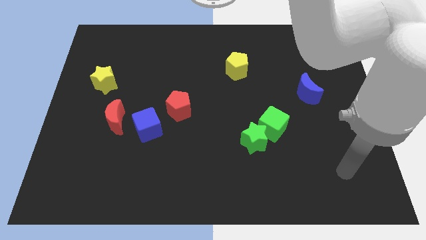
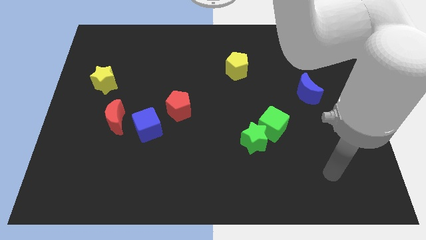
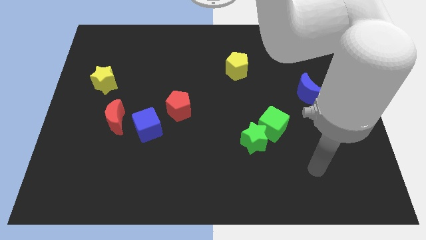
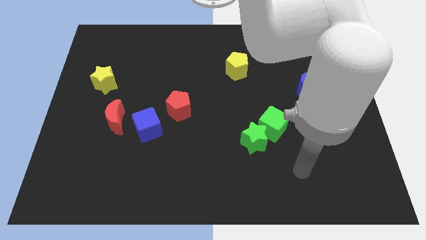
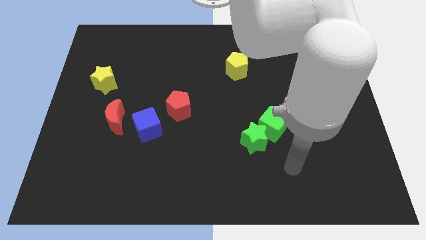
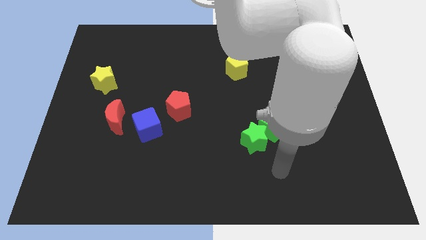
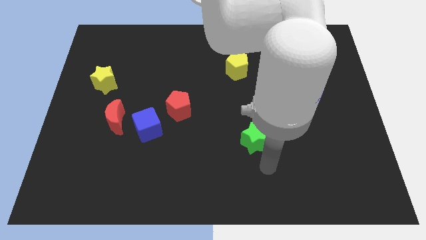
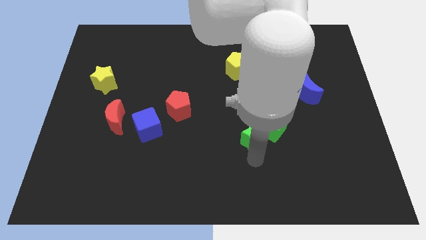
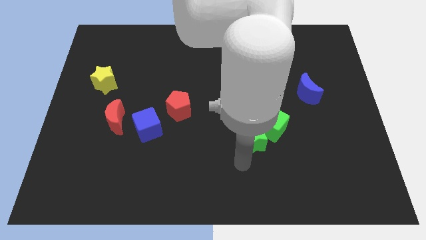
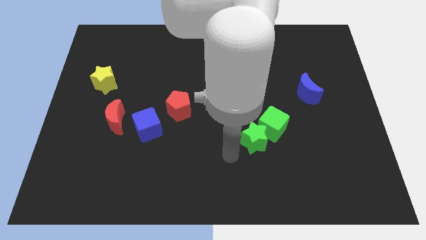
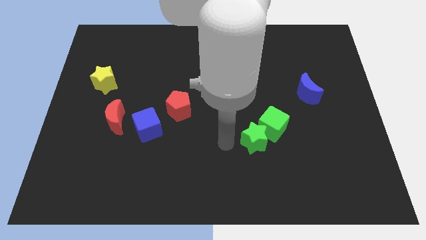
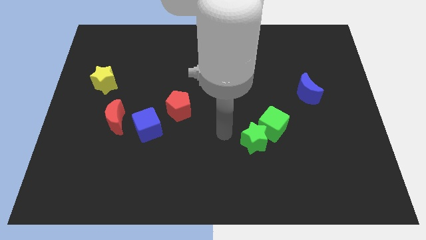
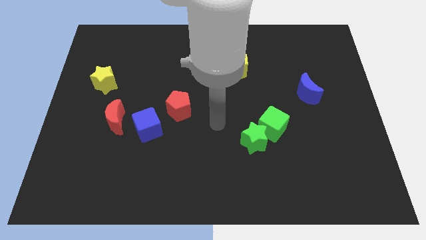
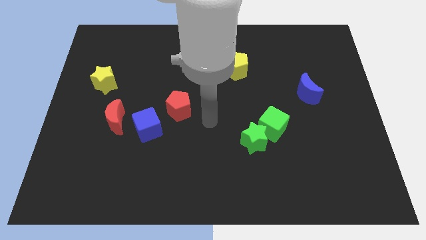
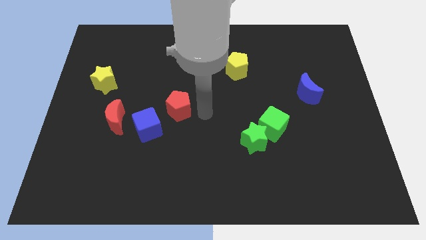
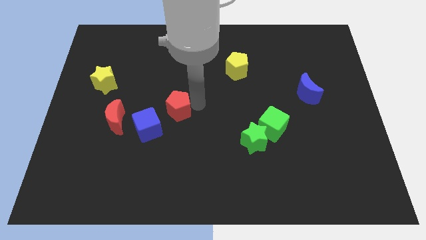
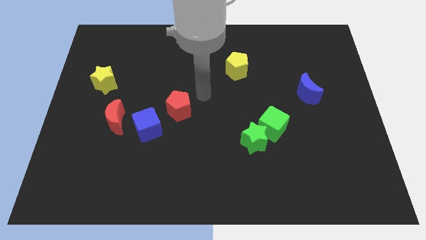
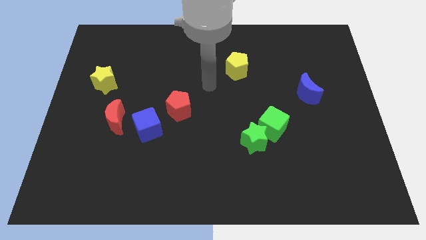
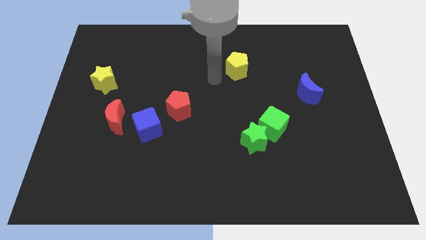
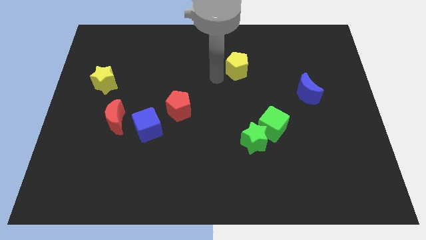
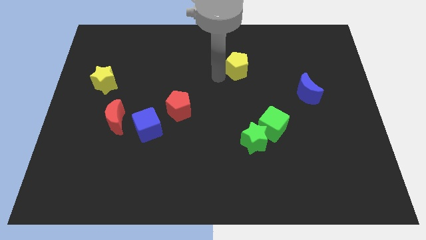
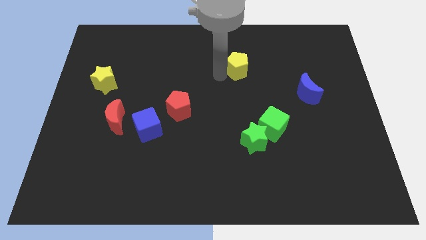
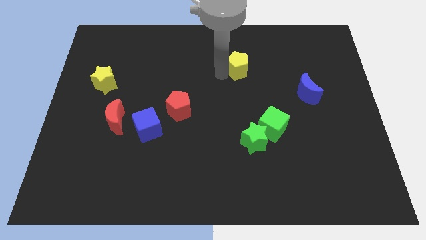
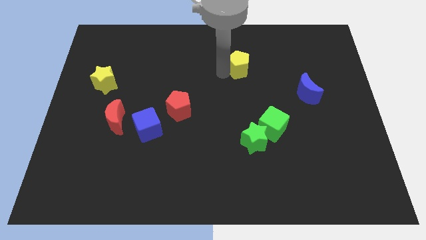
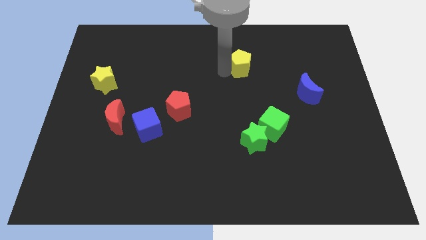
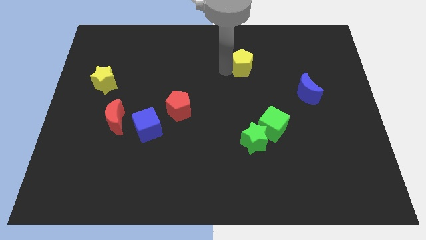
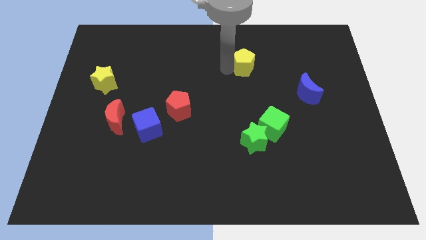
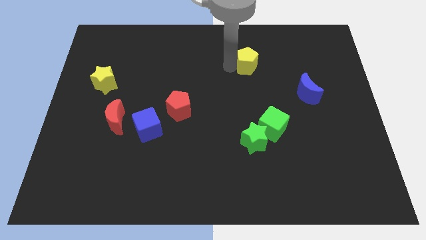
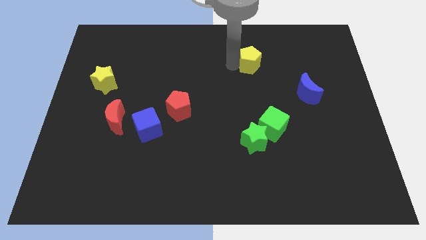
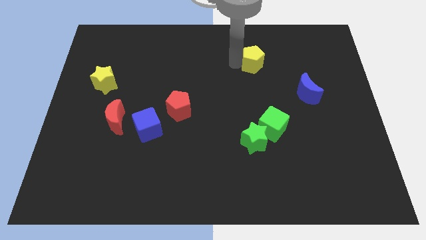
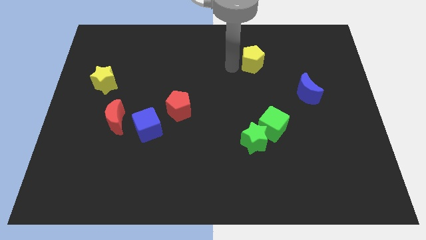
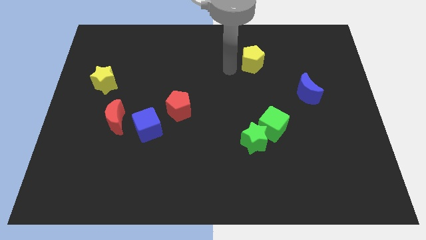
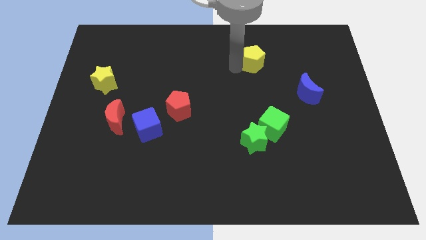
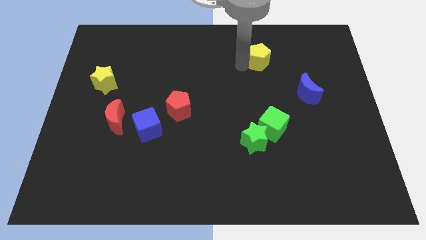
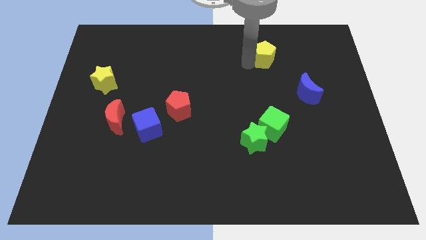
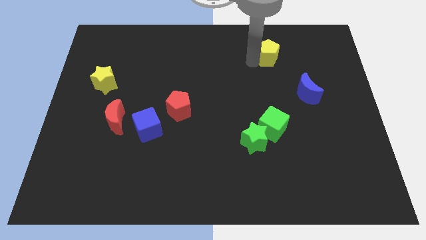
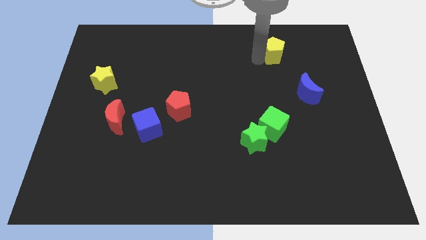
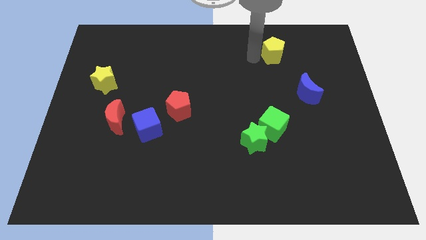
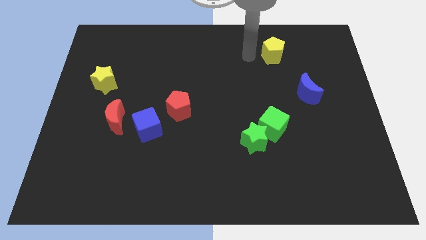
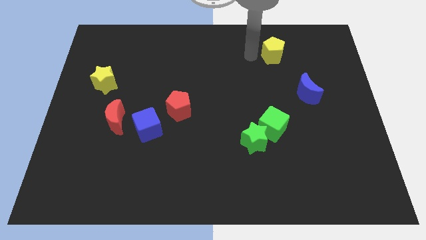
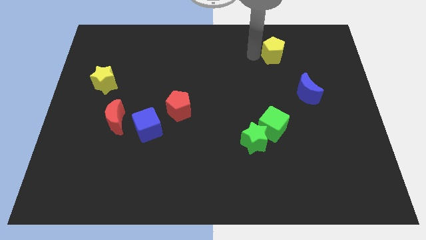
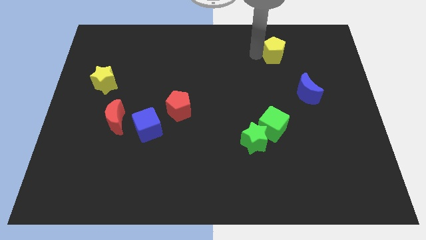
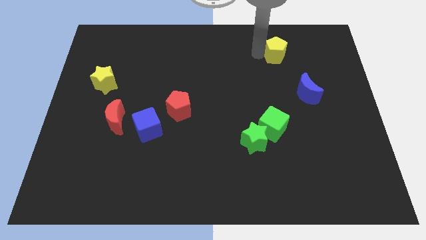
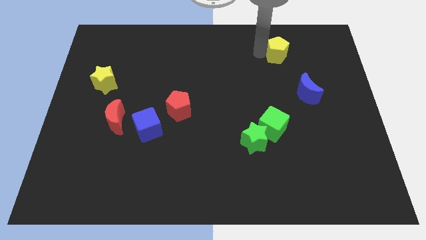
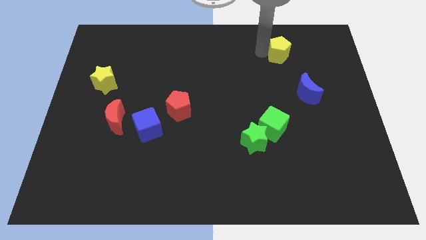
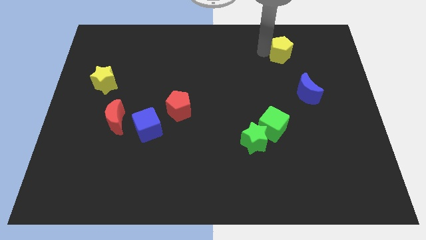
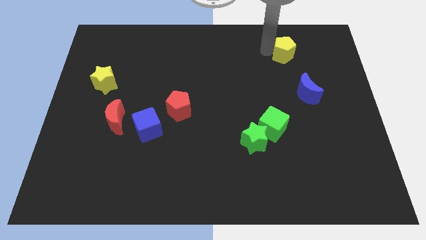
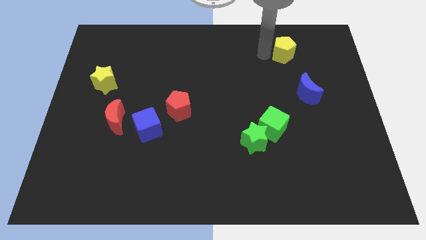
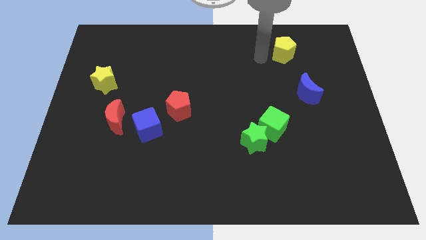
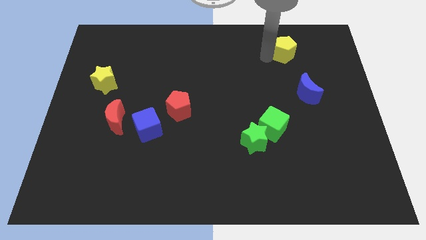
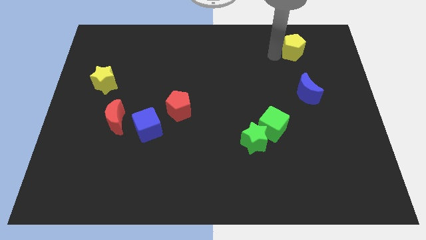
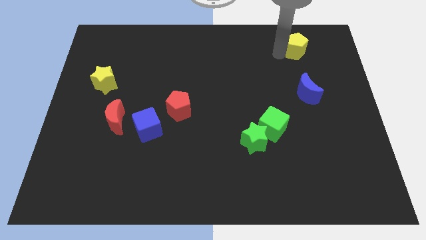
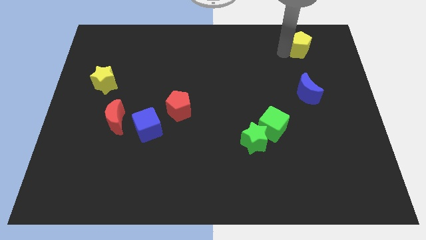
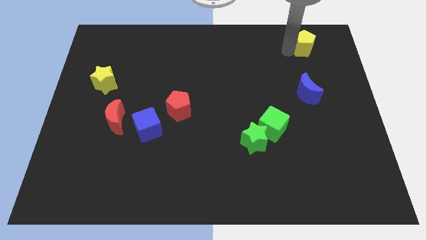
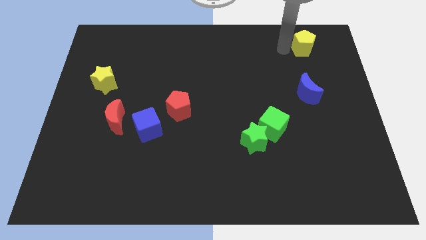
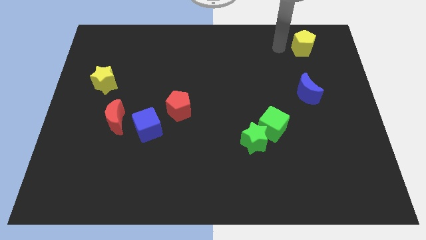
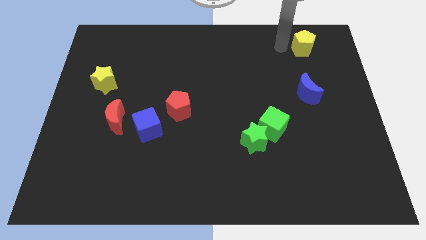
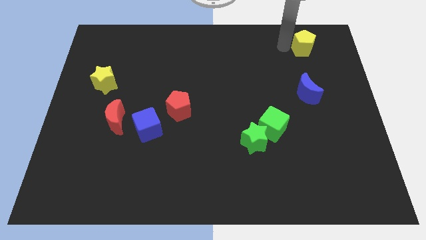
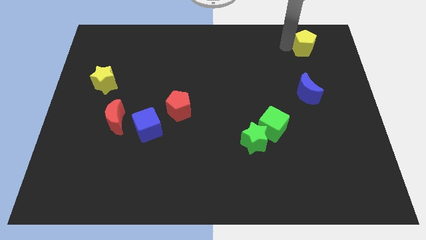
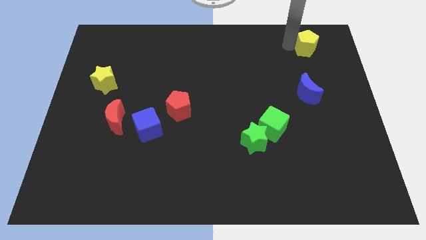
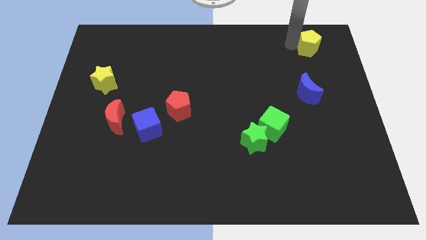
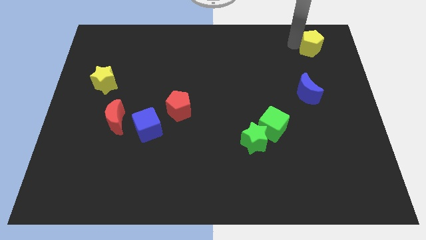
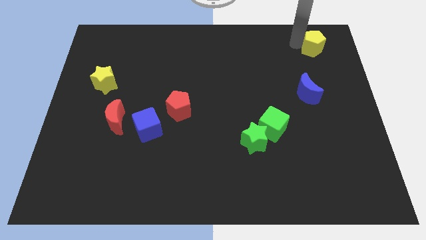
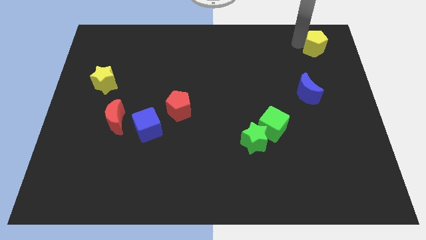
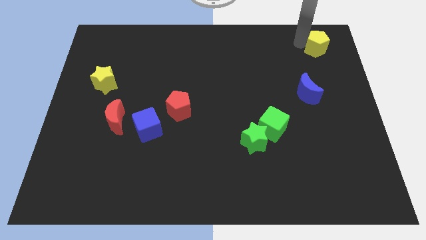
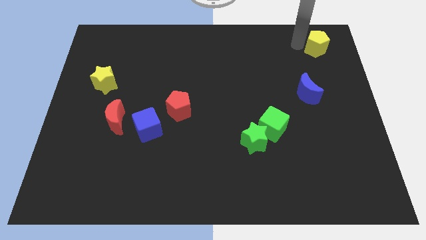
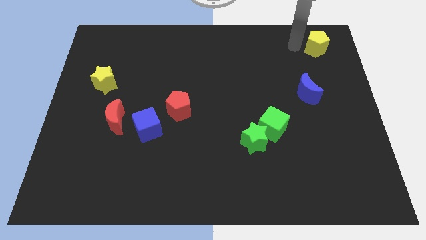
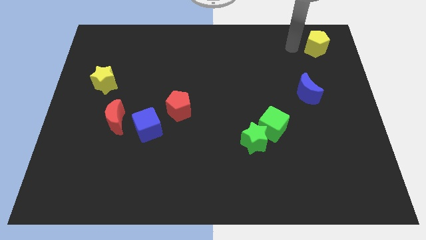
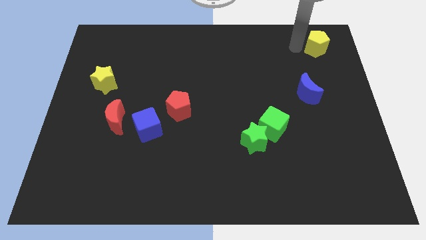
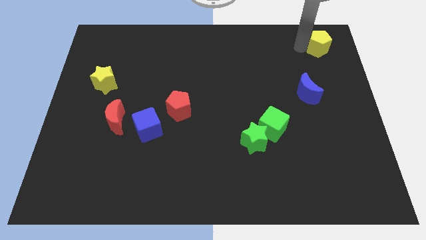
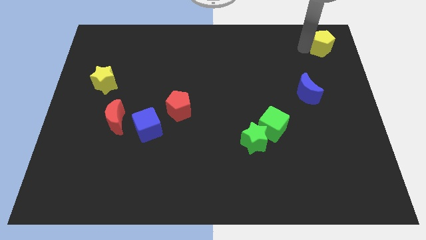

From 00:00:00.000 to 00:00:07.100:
slide the yellow pentagon to the top right
